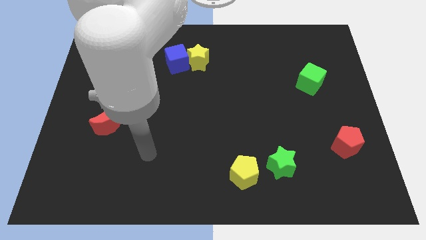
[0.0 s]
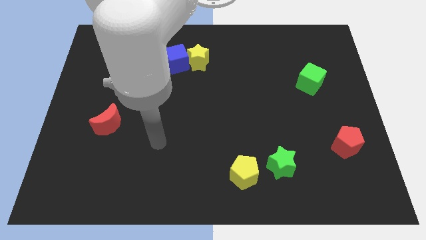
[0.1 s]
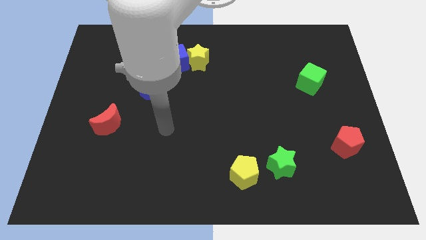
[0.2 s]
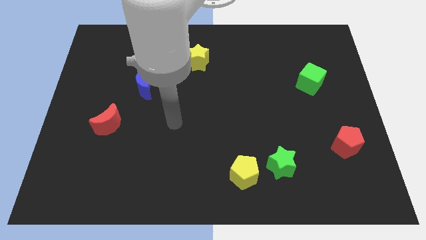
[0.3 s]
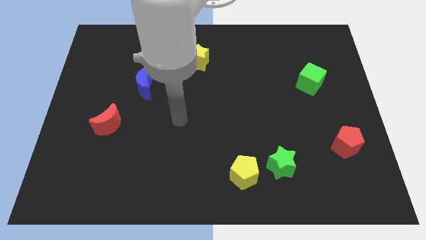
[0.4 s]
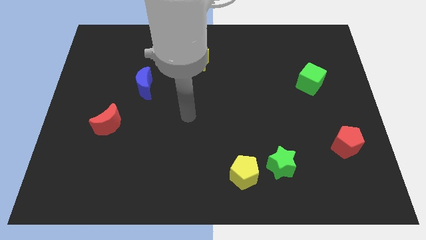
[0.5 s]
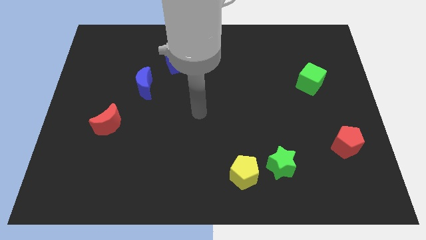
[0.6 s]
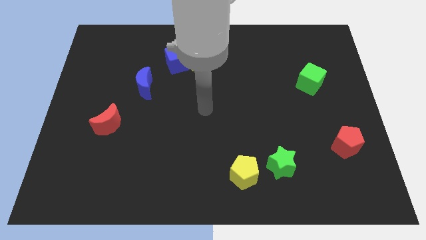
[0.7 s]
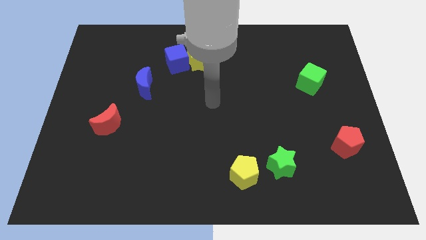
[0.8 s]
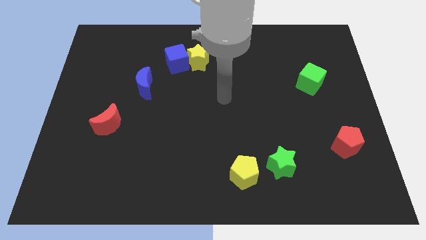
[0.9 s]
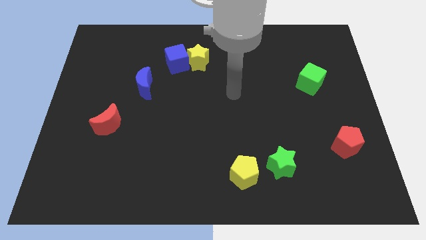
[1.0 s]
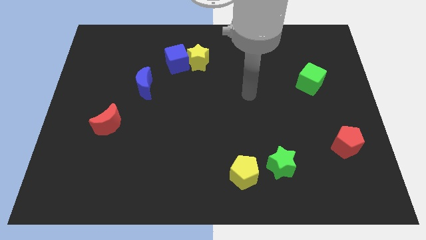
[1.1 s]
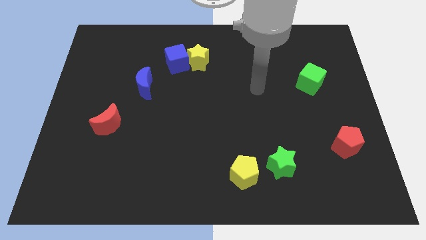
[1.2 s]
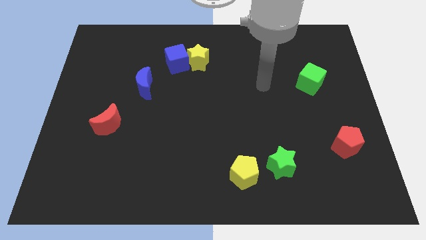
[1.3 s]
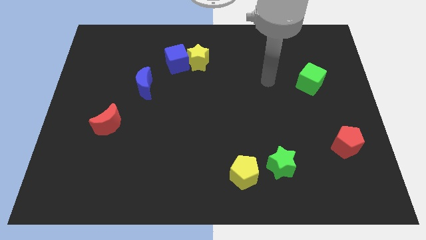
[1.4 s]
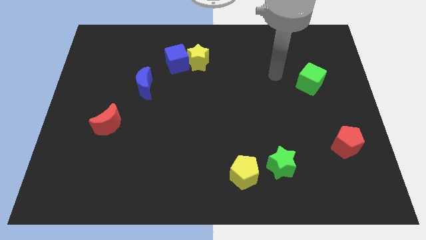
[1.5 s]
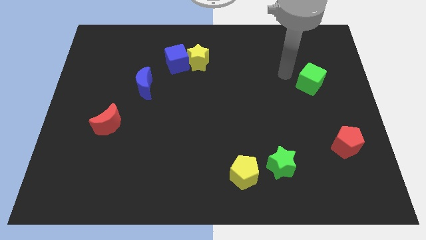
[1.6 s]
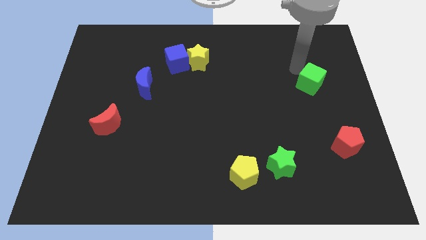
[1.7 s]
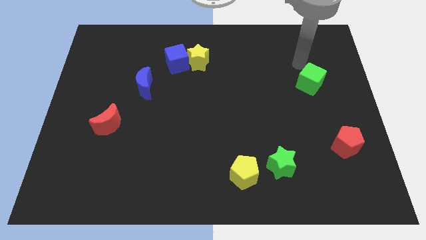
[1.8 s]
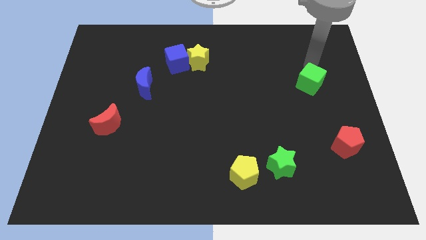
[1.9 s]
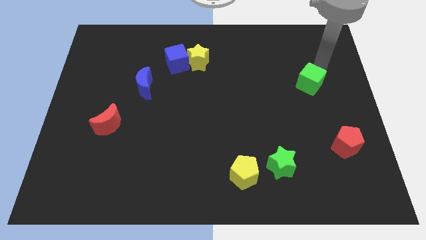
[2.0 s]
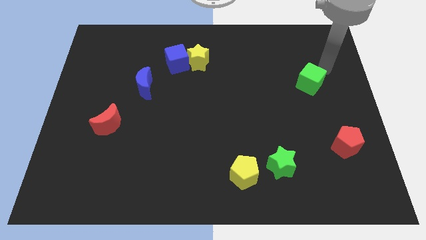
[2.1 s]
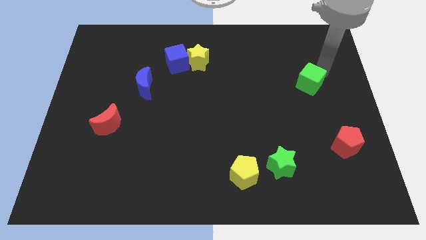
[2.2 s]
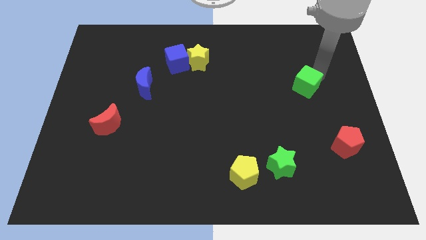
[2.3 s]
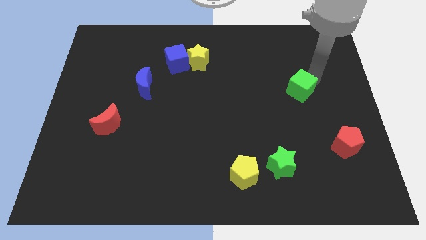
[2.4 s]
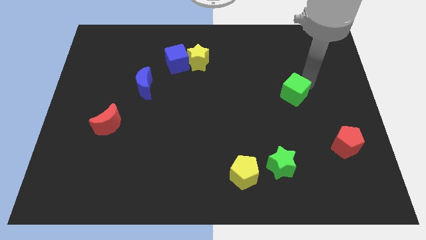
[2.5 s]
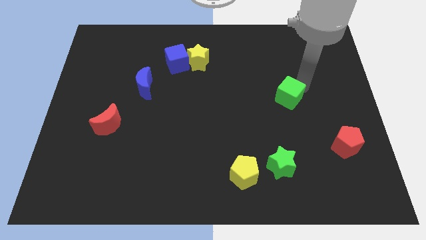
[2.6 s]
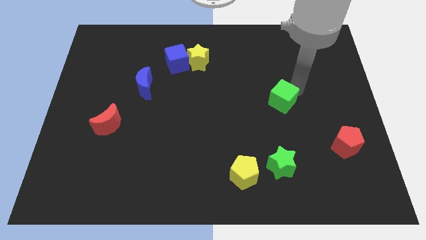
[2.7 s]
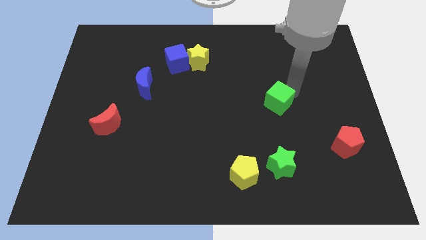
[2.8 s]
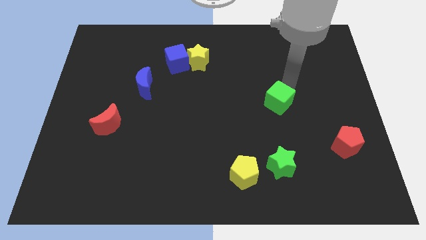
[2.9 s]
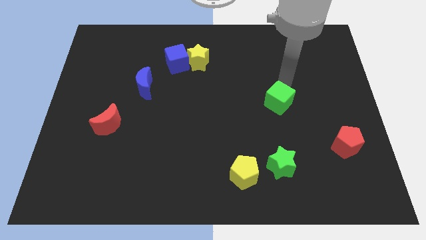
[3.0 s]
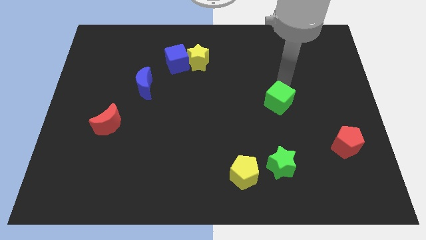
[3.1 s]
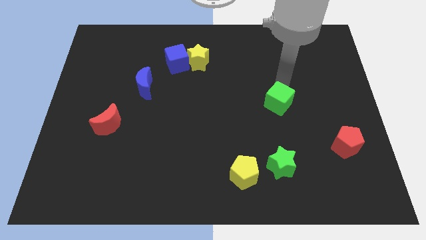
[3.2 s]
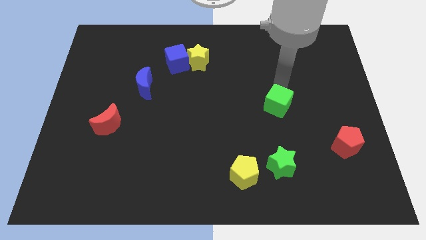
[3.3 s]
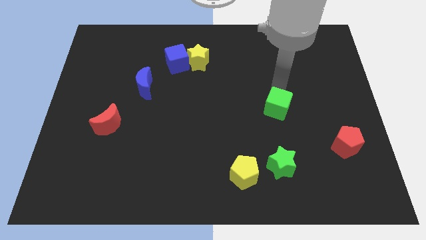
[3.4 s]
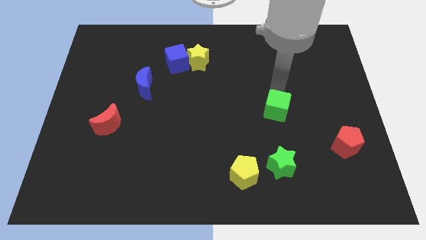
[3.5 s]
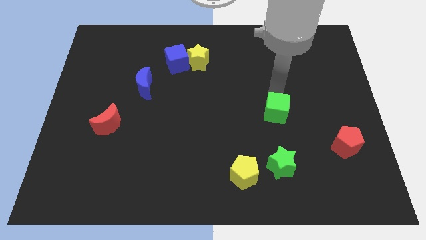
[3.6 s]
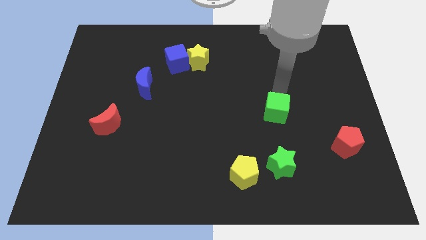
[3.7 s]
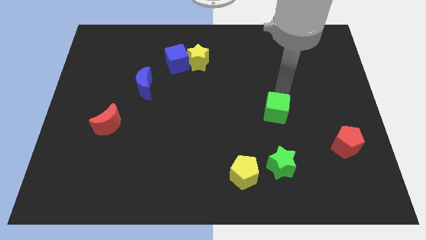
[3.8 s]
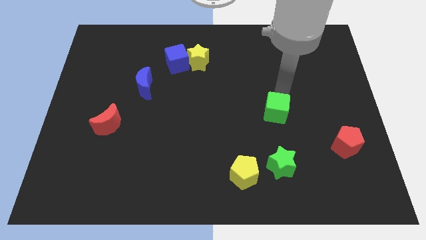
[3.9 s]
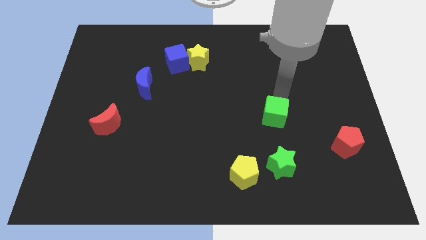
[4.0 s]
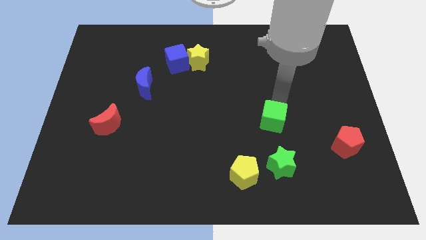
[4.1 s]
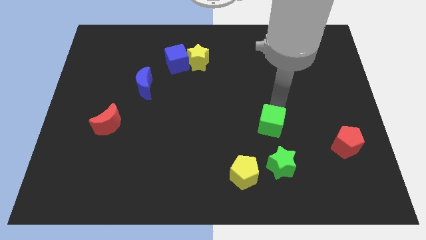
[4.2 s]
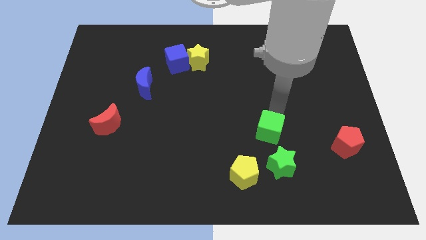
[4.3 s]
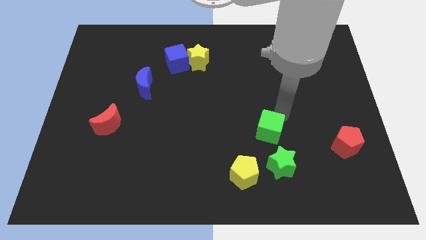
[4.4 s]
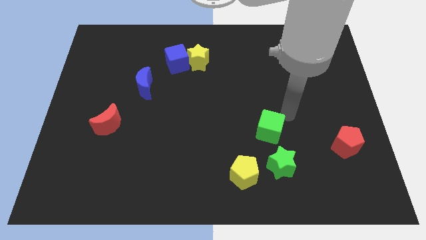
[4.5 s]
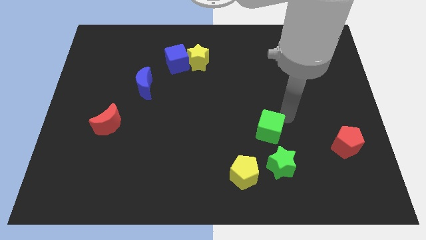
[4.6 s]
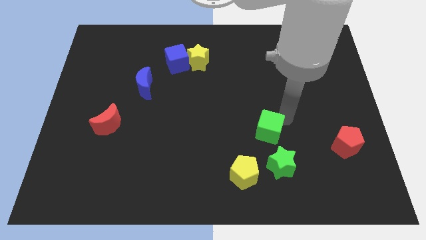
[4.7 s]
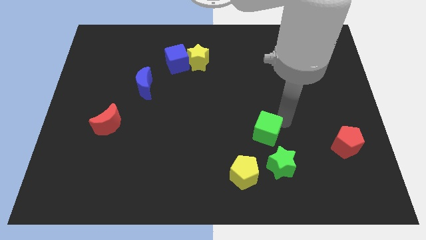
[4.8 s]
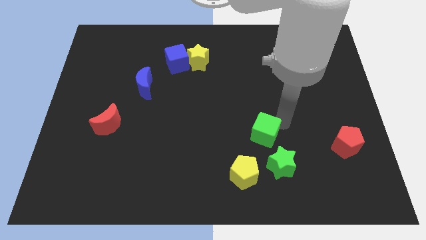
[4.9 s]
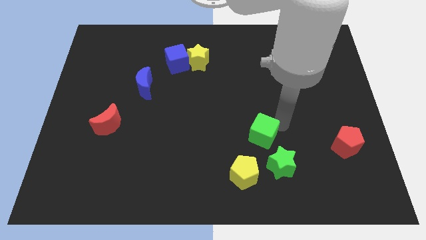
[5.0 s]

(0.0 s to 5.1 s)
move the green cube down and then left

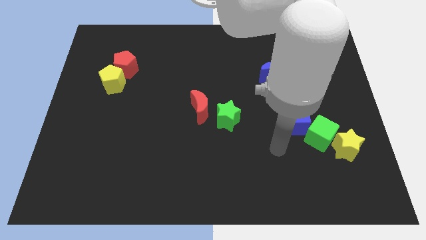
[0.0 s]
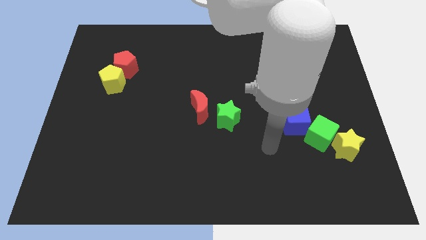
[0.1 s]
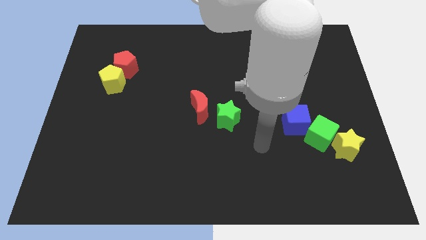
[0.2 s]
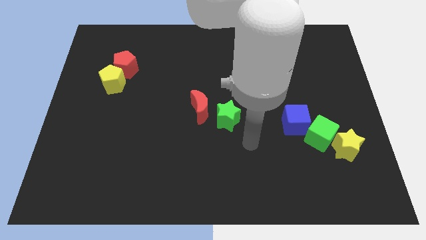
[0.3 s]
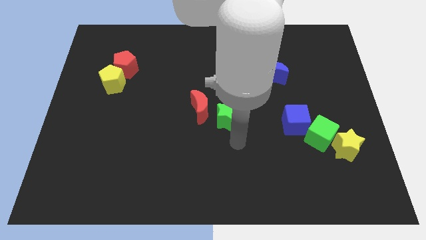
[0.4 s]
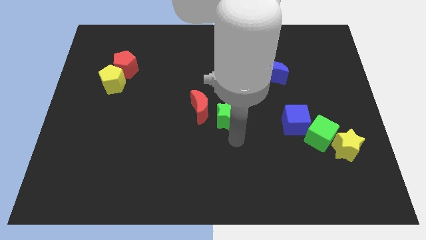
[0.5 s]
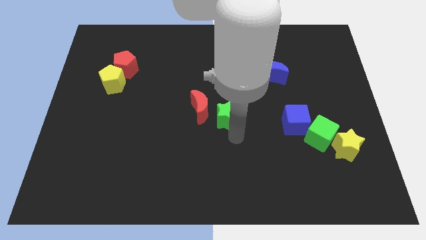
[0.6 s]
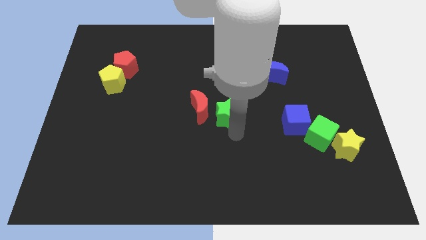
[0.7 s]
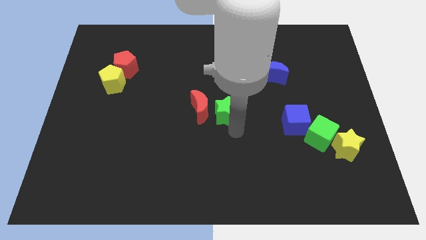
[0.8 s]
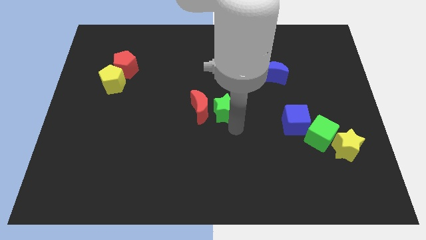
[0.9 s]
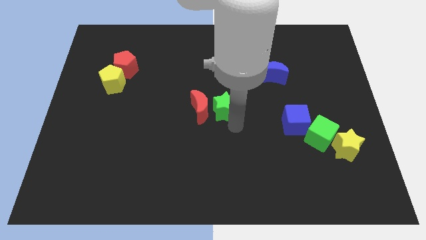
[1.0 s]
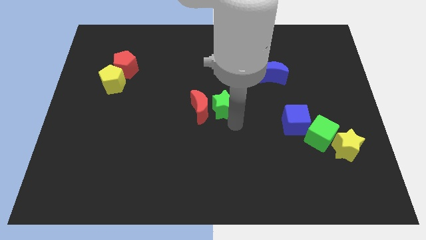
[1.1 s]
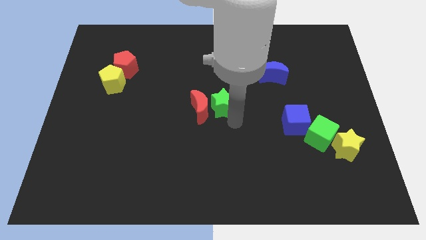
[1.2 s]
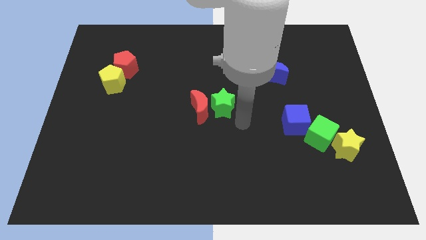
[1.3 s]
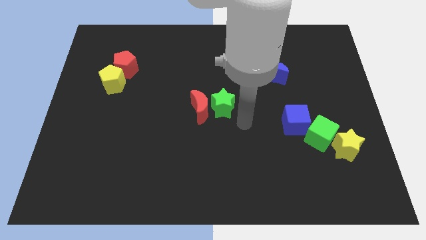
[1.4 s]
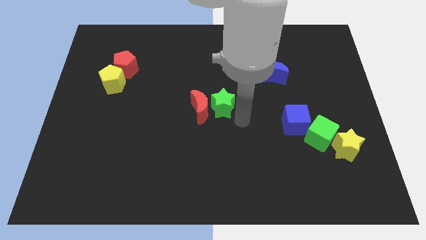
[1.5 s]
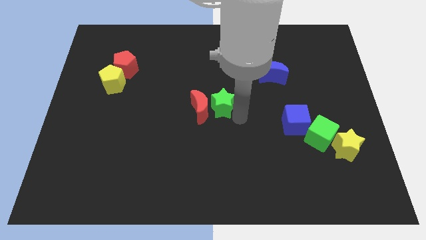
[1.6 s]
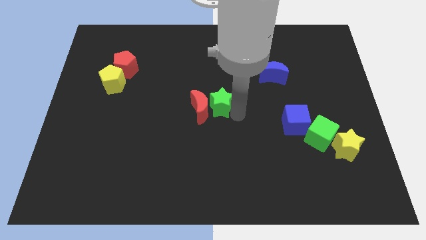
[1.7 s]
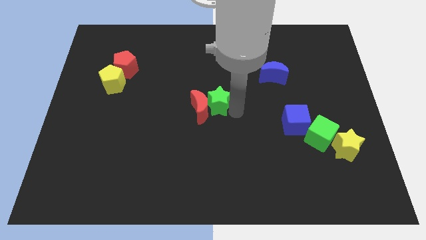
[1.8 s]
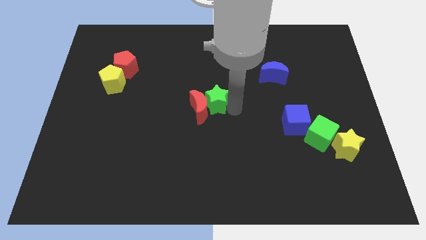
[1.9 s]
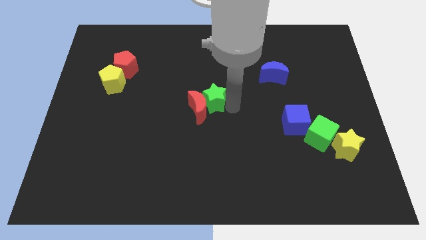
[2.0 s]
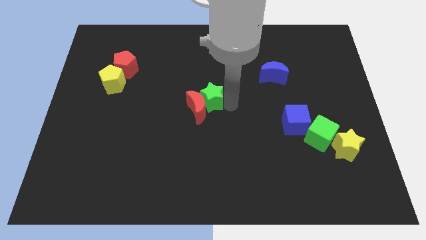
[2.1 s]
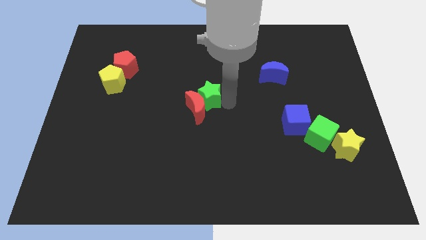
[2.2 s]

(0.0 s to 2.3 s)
slide the green star a little diagonally upwards and to the left

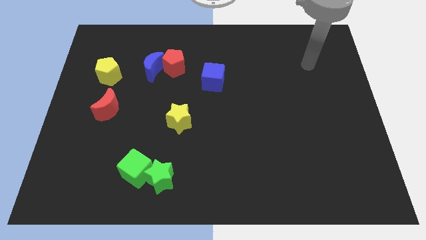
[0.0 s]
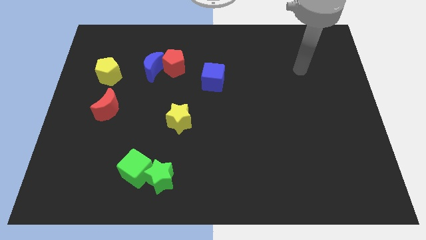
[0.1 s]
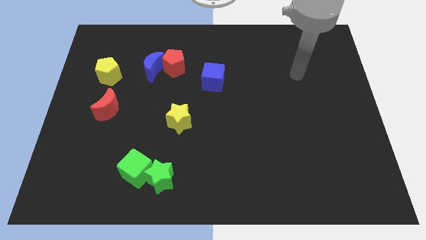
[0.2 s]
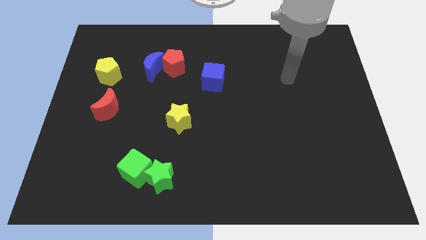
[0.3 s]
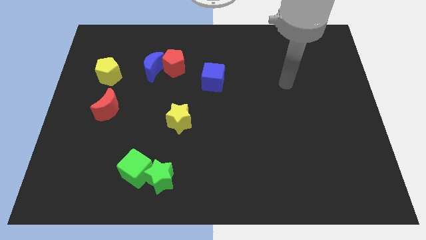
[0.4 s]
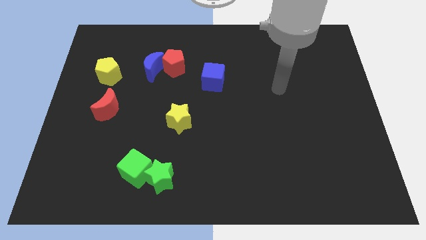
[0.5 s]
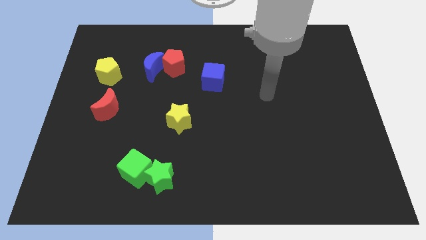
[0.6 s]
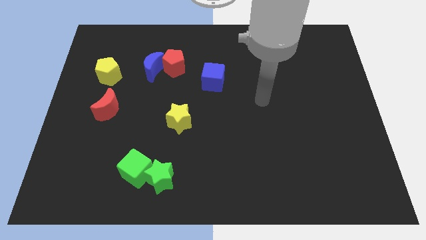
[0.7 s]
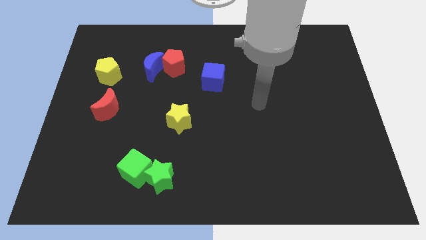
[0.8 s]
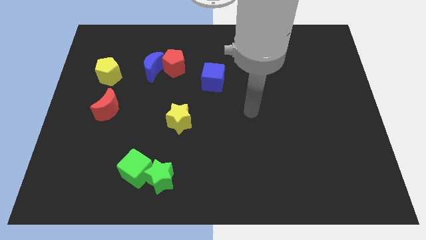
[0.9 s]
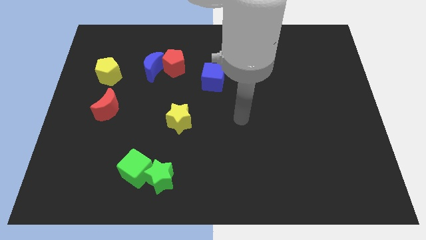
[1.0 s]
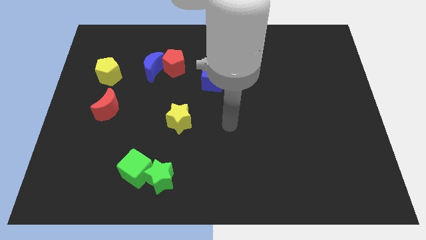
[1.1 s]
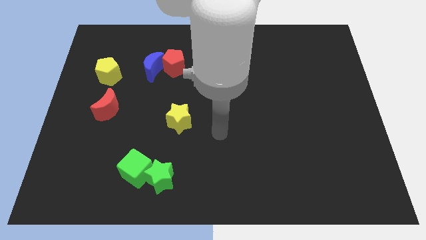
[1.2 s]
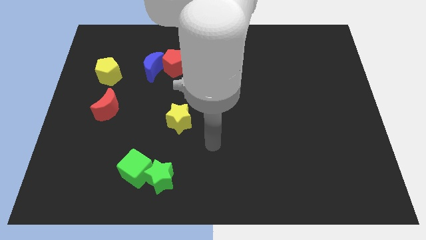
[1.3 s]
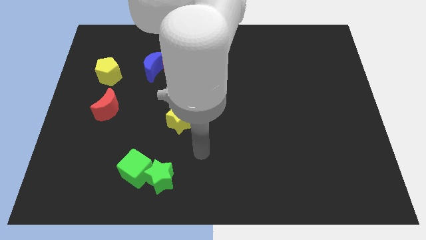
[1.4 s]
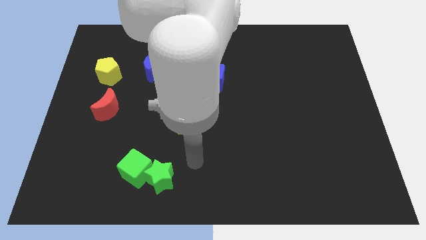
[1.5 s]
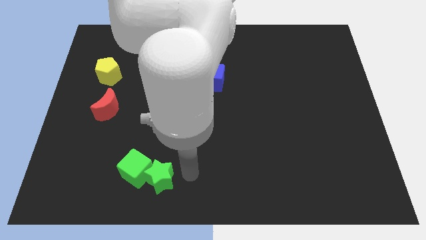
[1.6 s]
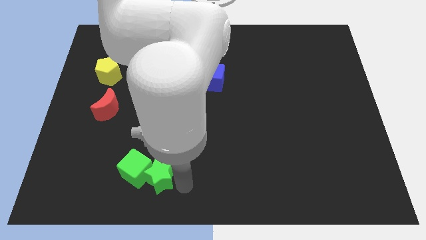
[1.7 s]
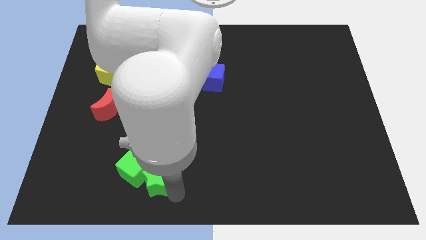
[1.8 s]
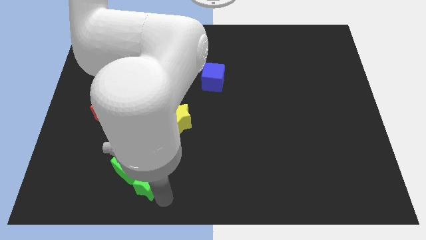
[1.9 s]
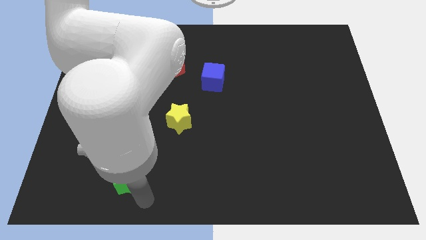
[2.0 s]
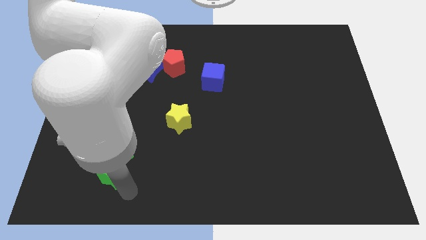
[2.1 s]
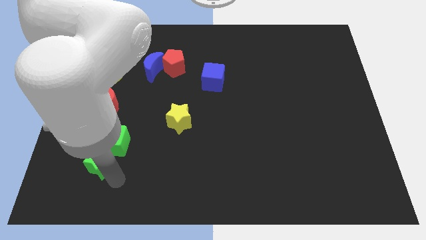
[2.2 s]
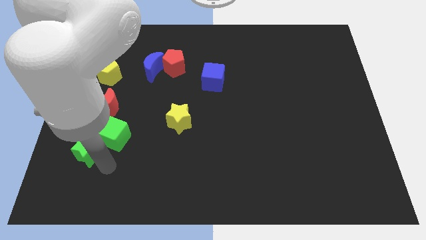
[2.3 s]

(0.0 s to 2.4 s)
slide the green cube up a little bit
